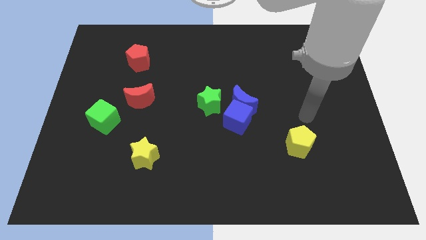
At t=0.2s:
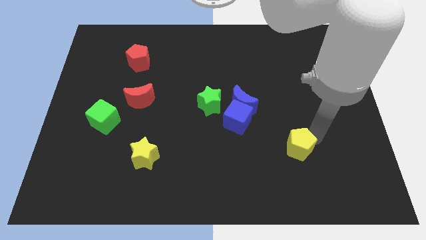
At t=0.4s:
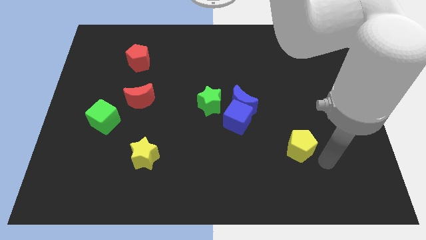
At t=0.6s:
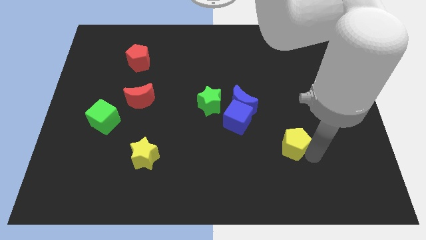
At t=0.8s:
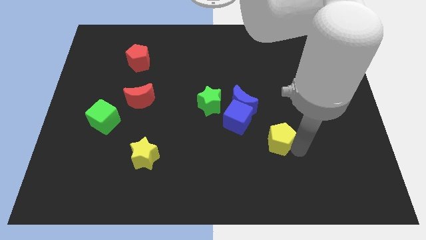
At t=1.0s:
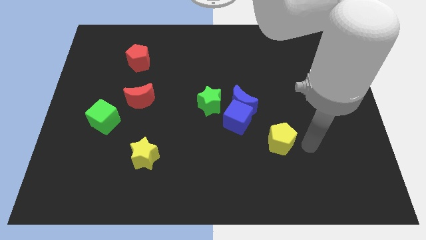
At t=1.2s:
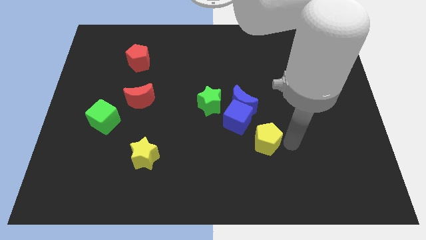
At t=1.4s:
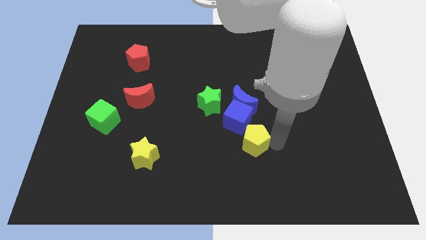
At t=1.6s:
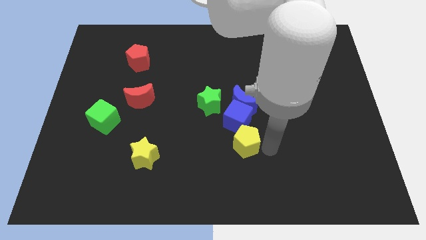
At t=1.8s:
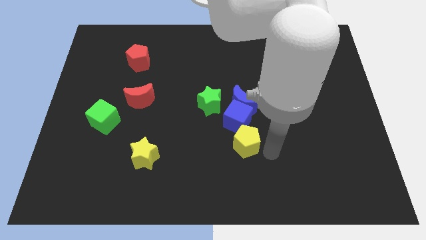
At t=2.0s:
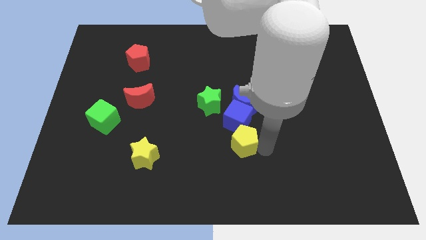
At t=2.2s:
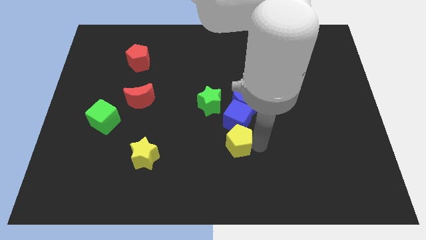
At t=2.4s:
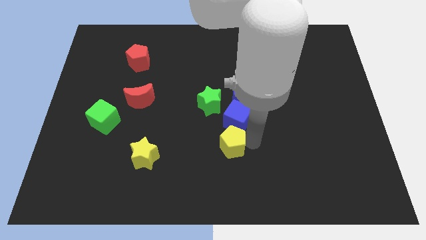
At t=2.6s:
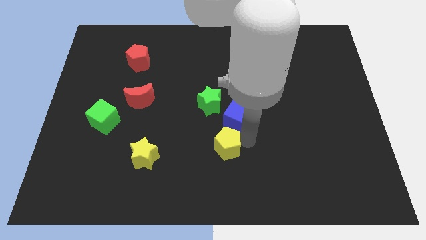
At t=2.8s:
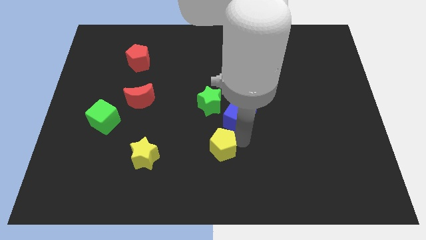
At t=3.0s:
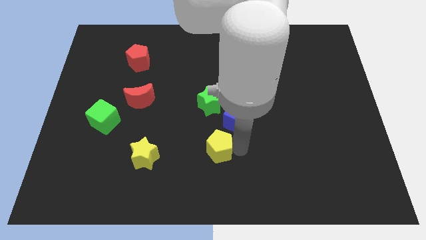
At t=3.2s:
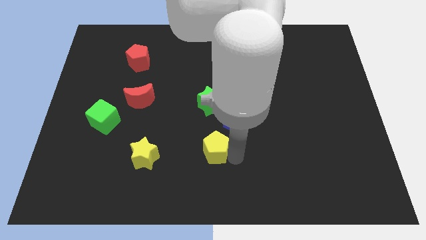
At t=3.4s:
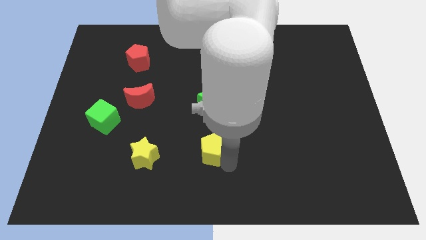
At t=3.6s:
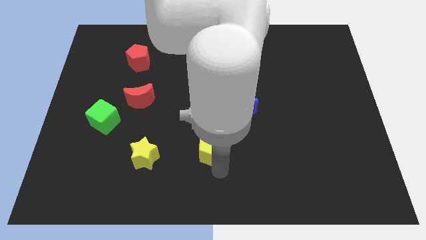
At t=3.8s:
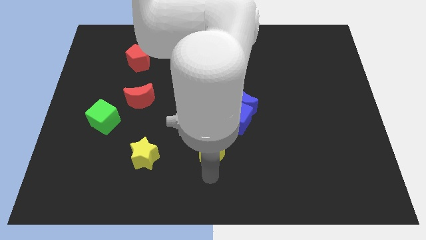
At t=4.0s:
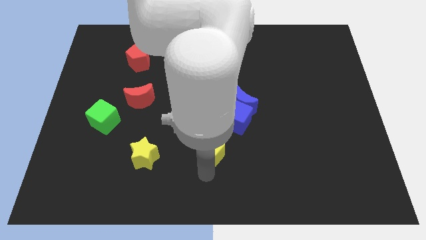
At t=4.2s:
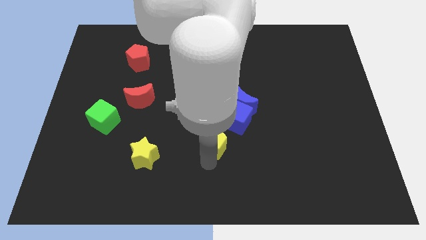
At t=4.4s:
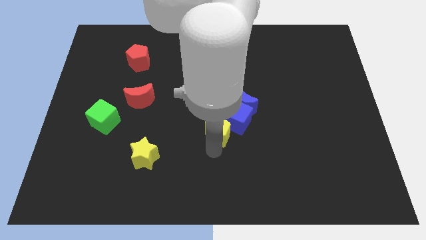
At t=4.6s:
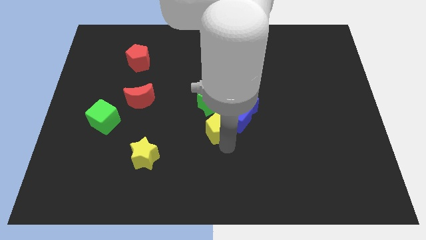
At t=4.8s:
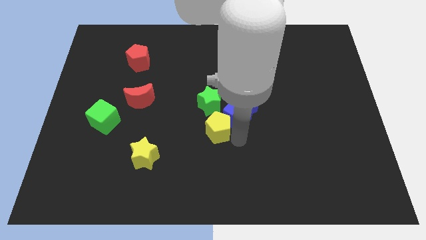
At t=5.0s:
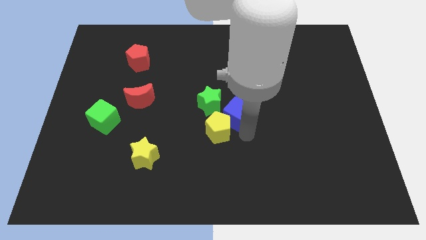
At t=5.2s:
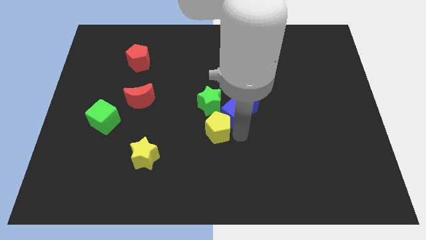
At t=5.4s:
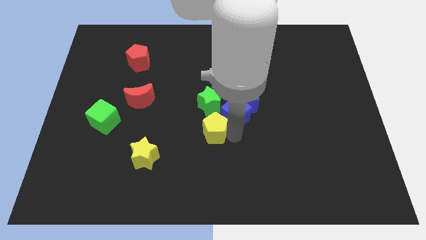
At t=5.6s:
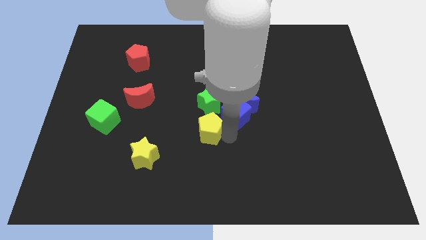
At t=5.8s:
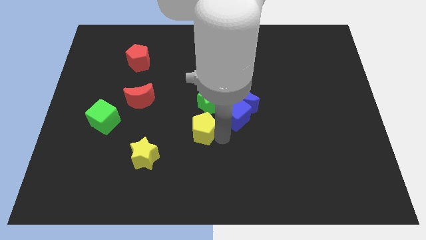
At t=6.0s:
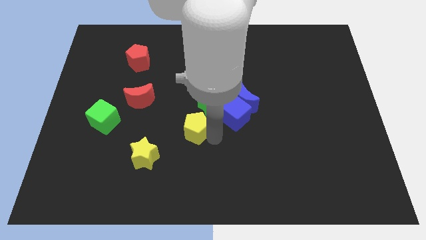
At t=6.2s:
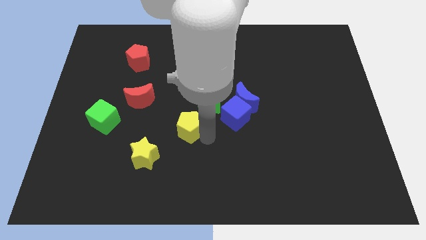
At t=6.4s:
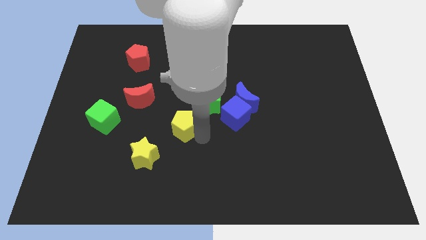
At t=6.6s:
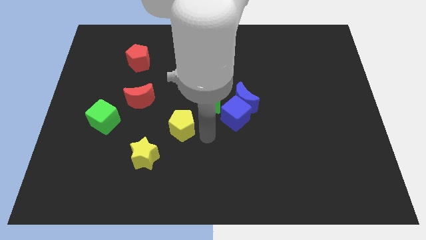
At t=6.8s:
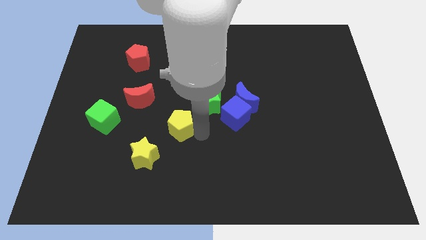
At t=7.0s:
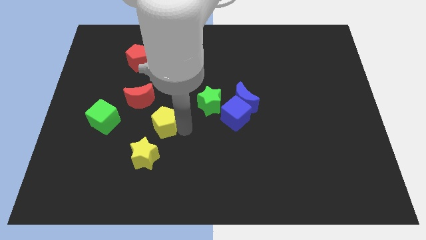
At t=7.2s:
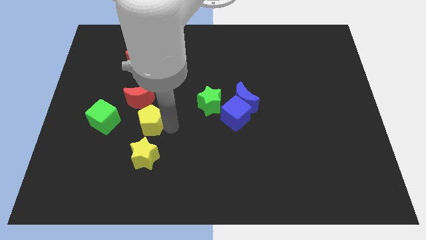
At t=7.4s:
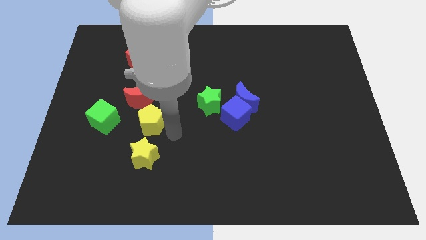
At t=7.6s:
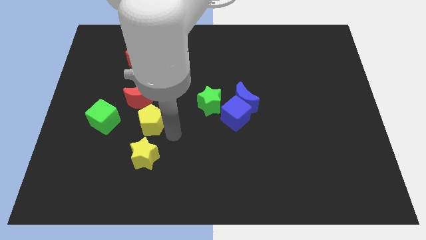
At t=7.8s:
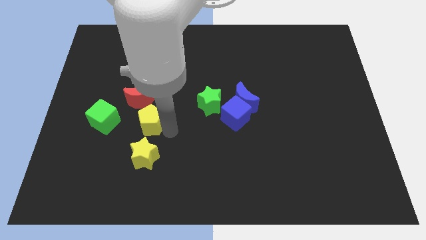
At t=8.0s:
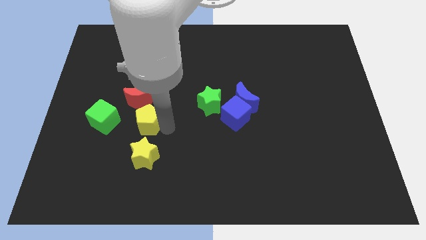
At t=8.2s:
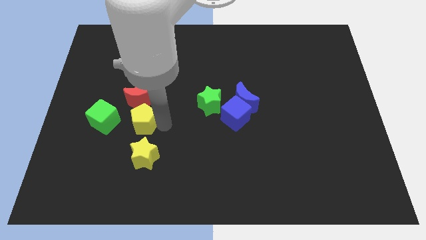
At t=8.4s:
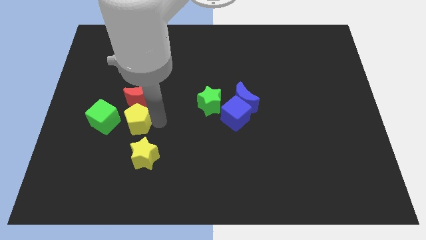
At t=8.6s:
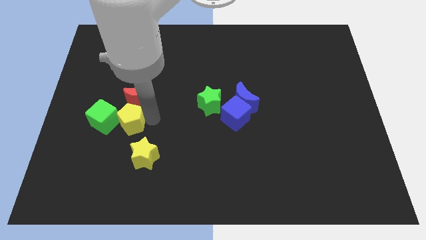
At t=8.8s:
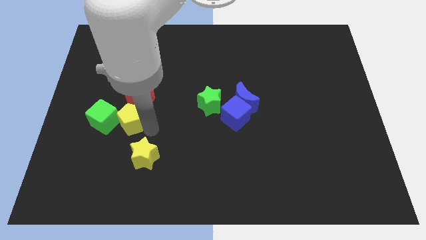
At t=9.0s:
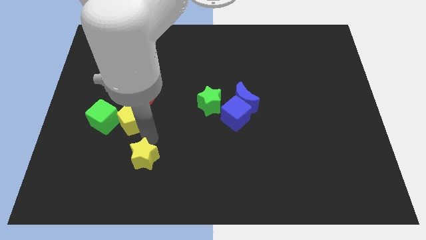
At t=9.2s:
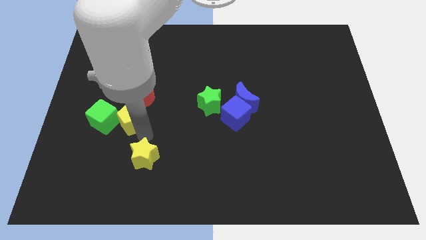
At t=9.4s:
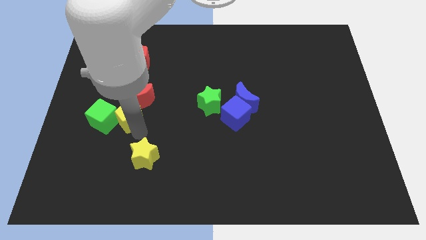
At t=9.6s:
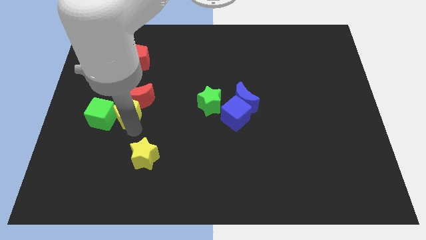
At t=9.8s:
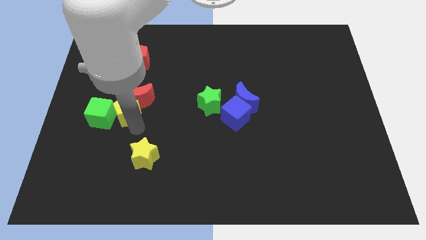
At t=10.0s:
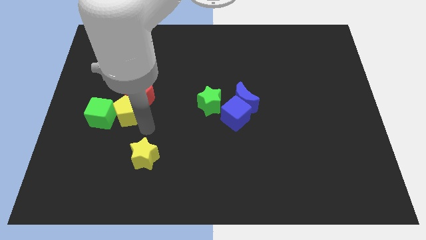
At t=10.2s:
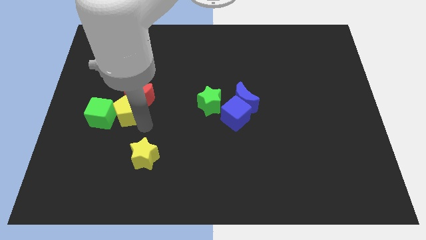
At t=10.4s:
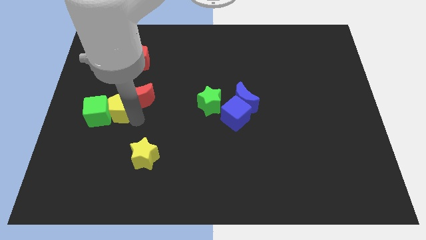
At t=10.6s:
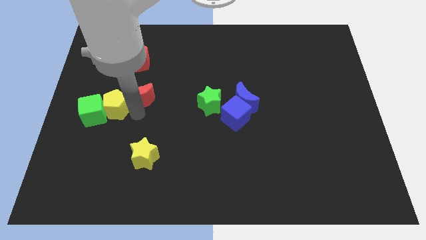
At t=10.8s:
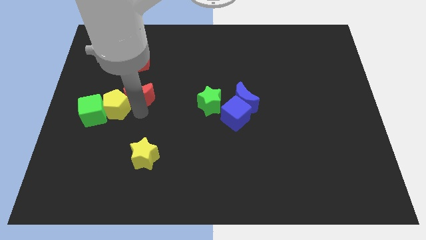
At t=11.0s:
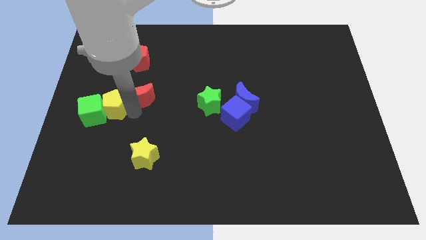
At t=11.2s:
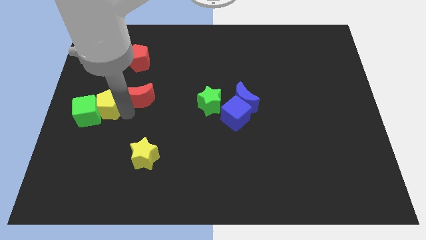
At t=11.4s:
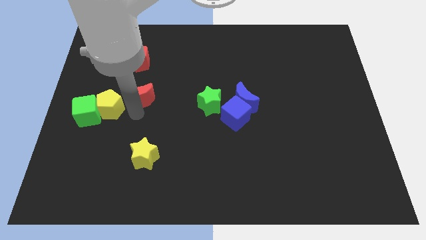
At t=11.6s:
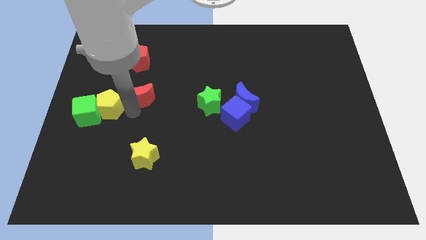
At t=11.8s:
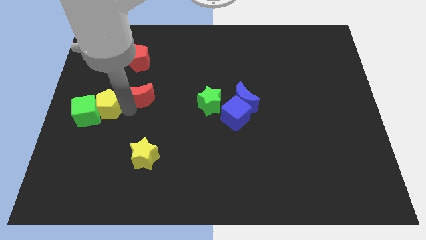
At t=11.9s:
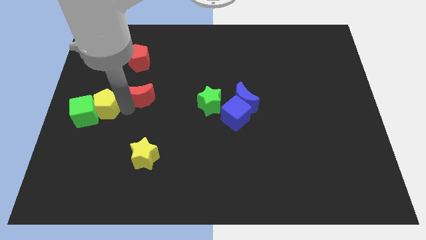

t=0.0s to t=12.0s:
push the yellow pentagon to the center left

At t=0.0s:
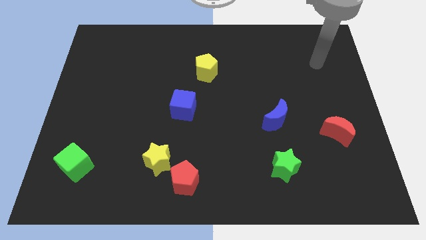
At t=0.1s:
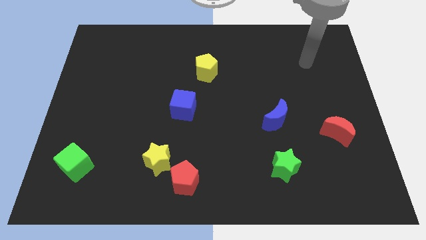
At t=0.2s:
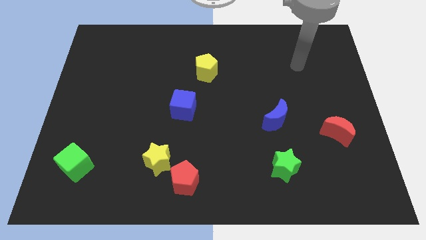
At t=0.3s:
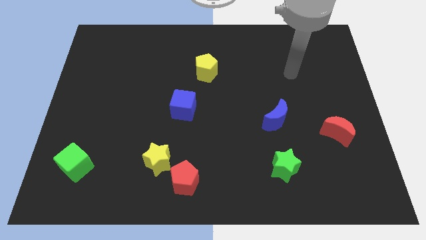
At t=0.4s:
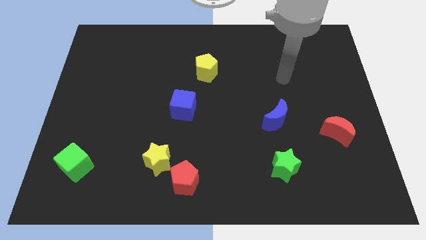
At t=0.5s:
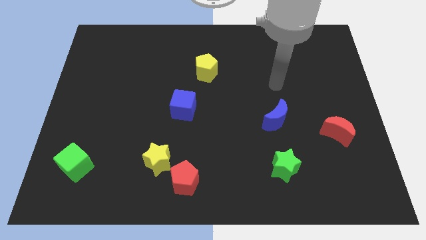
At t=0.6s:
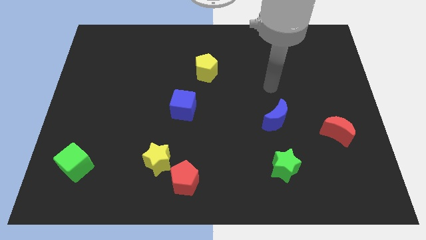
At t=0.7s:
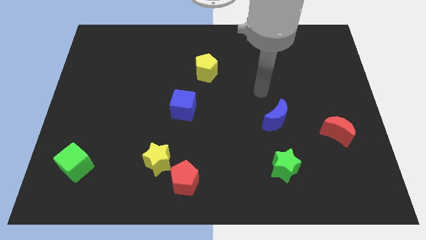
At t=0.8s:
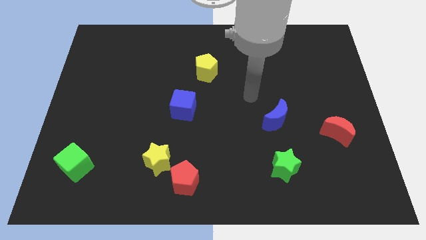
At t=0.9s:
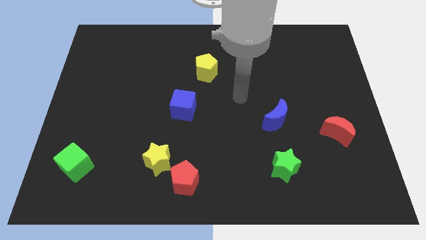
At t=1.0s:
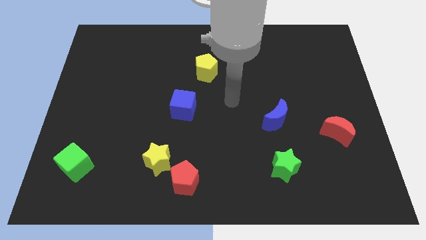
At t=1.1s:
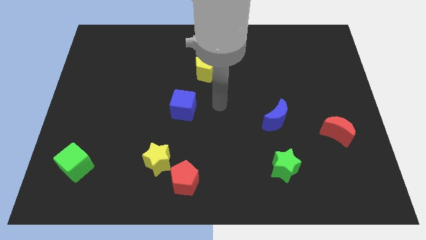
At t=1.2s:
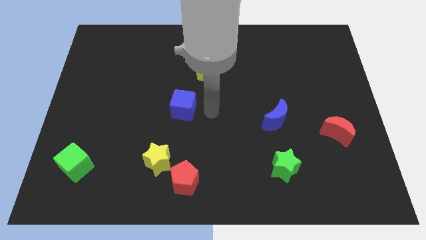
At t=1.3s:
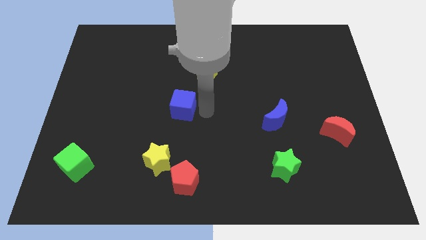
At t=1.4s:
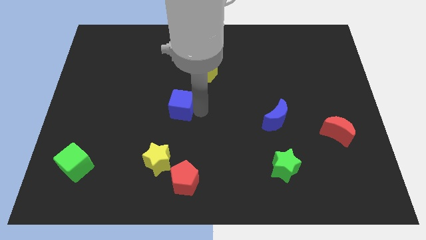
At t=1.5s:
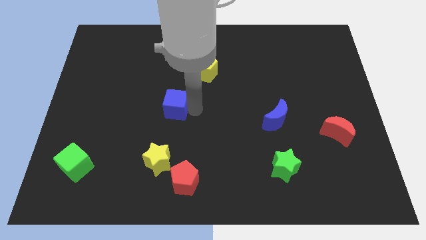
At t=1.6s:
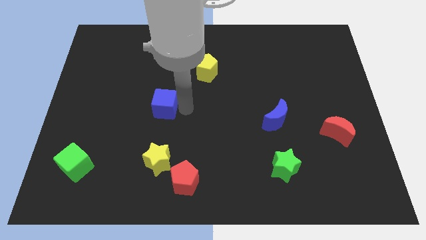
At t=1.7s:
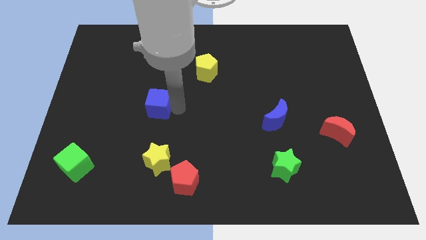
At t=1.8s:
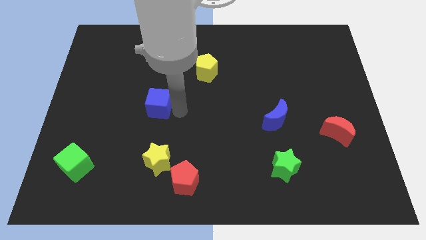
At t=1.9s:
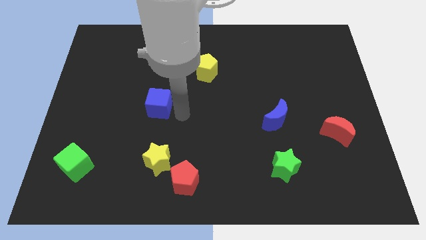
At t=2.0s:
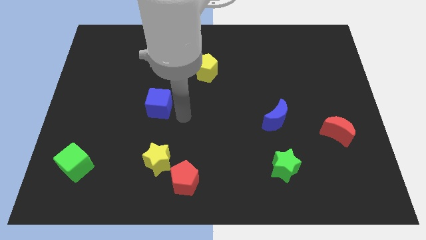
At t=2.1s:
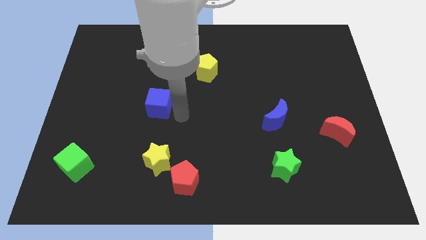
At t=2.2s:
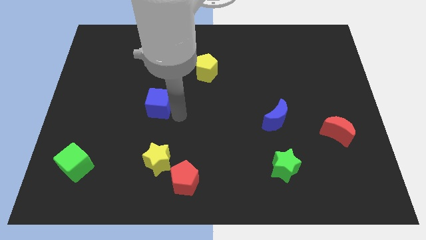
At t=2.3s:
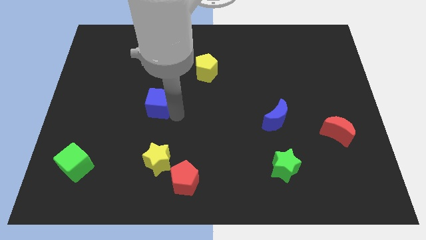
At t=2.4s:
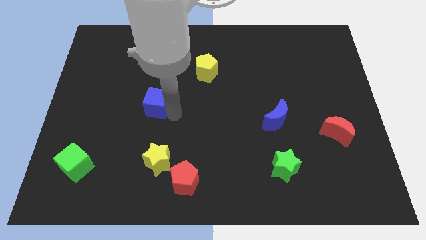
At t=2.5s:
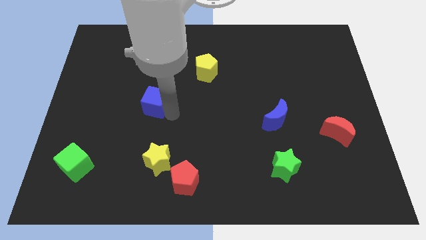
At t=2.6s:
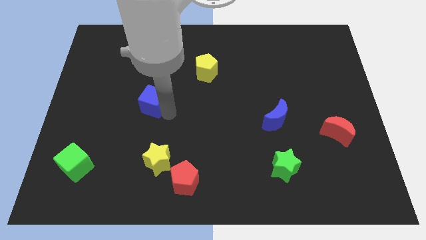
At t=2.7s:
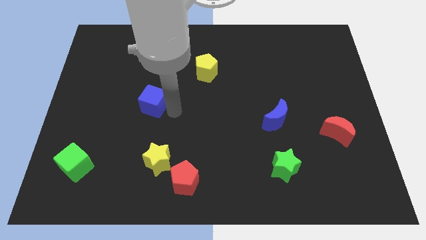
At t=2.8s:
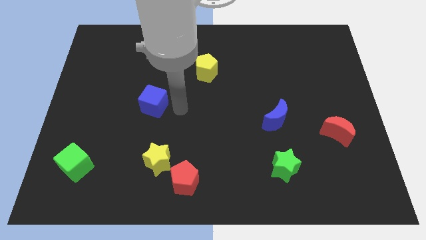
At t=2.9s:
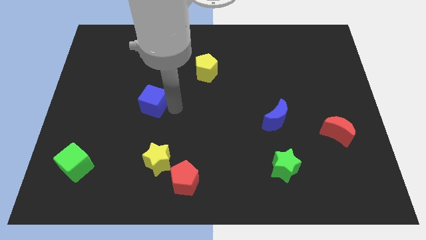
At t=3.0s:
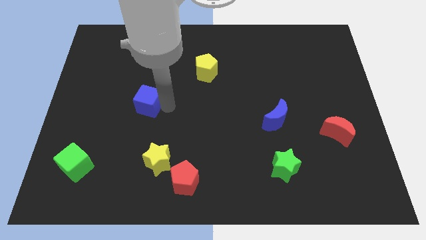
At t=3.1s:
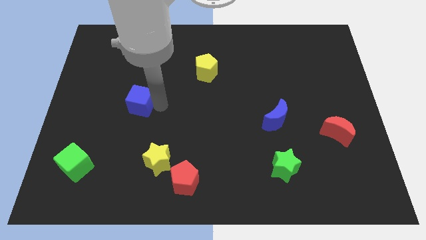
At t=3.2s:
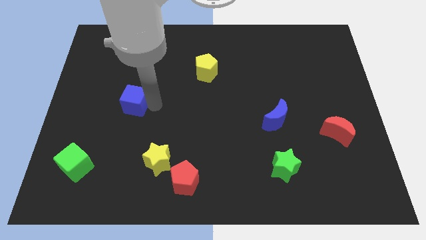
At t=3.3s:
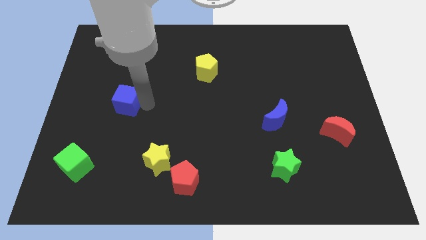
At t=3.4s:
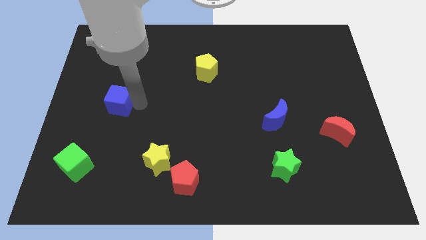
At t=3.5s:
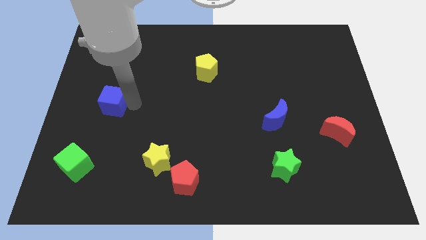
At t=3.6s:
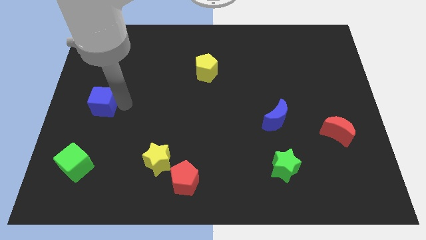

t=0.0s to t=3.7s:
put the blue cube to the center left
